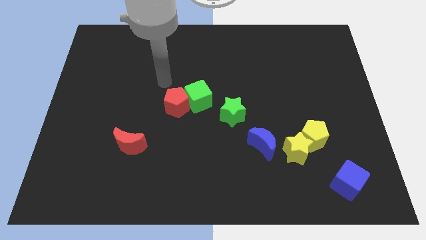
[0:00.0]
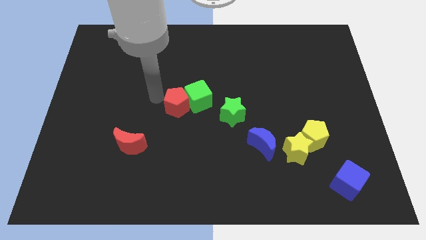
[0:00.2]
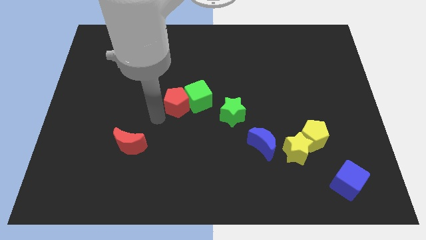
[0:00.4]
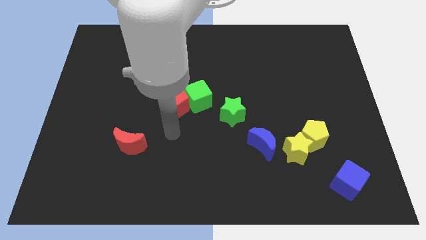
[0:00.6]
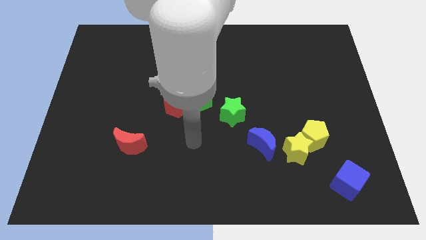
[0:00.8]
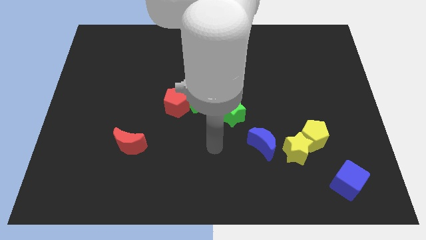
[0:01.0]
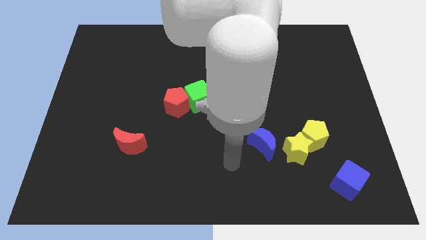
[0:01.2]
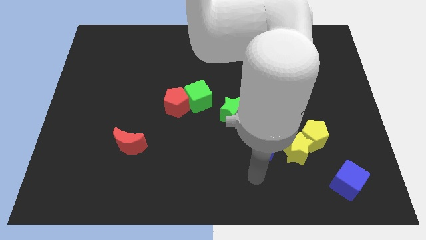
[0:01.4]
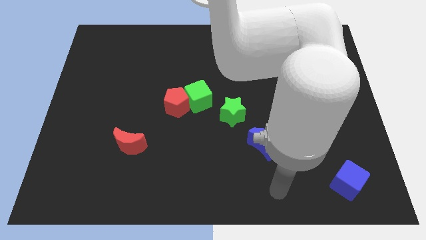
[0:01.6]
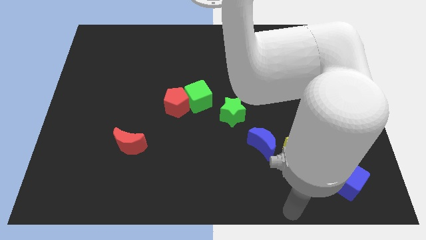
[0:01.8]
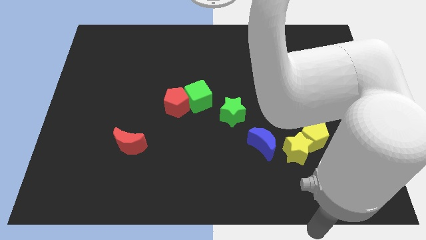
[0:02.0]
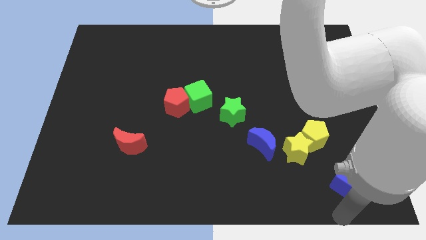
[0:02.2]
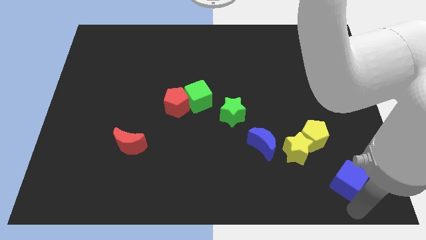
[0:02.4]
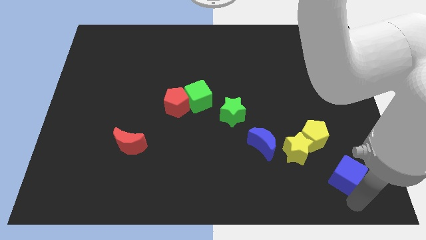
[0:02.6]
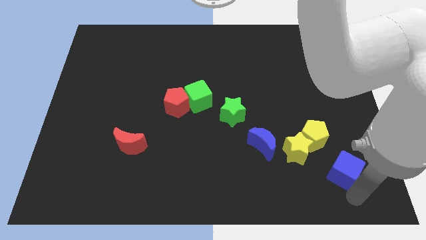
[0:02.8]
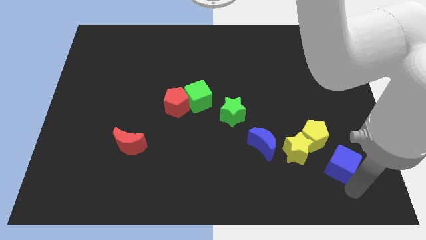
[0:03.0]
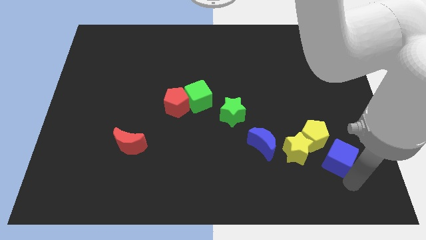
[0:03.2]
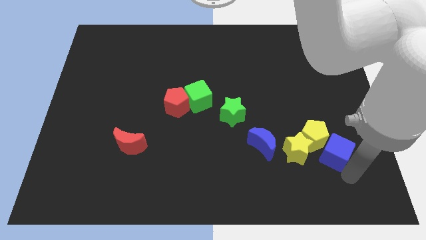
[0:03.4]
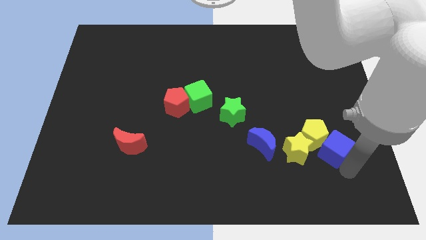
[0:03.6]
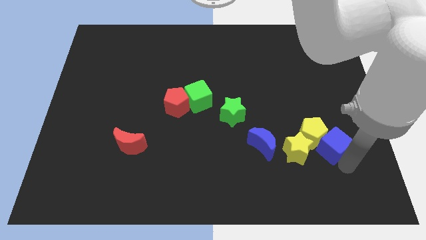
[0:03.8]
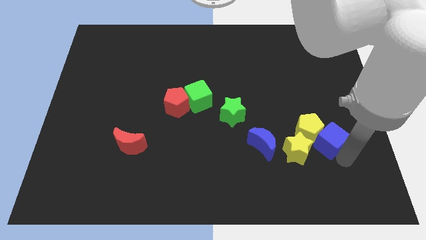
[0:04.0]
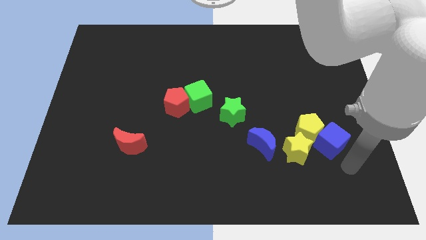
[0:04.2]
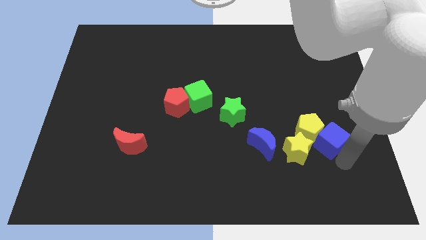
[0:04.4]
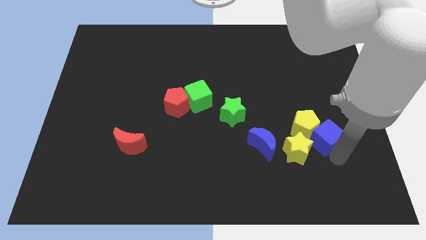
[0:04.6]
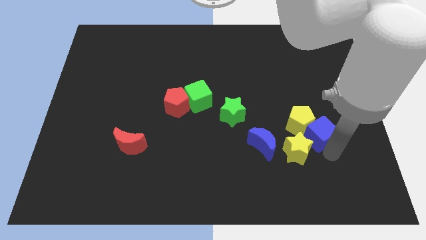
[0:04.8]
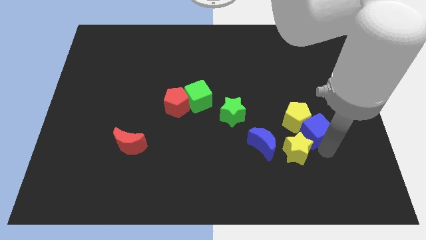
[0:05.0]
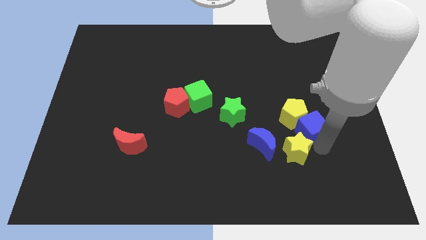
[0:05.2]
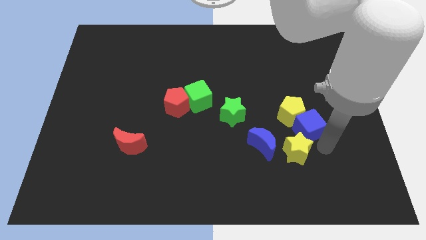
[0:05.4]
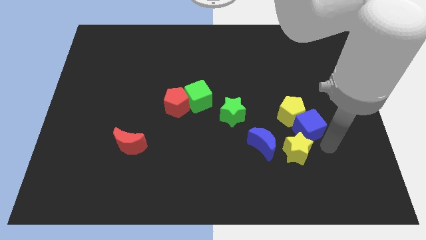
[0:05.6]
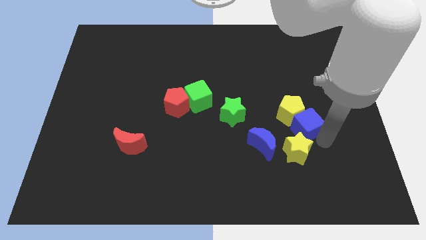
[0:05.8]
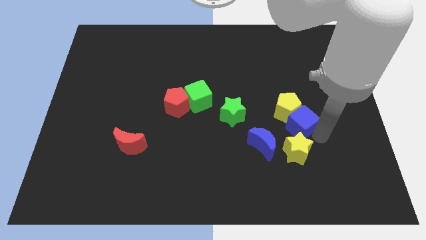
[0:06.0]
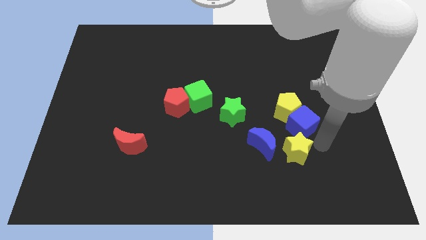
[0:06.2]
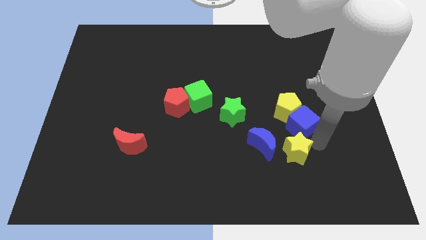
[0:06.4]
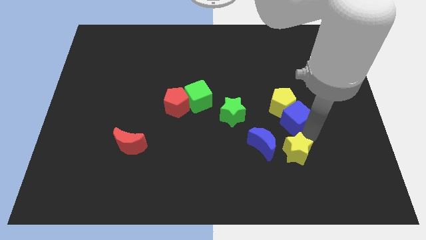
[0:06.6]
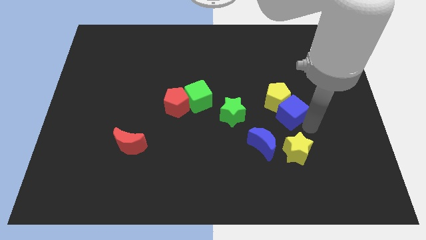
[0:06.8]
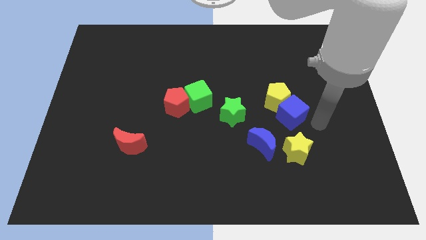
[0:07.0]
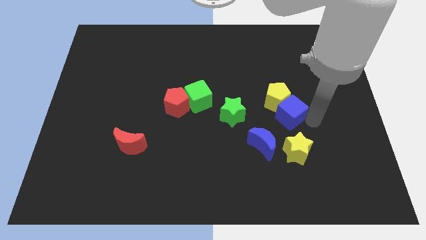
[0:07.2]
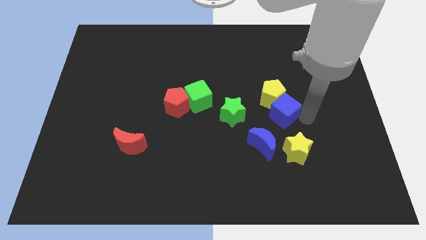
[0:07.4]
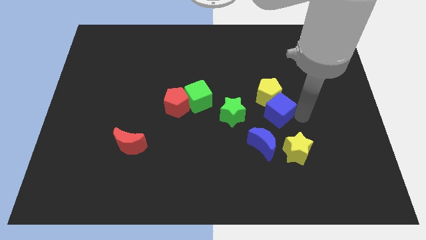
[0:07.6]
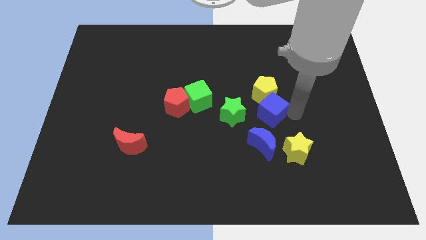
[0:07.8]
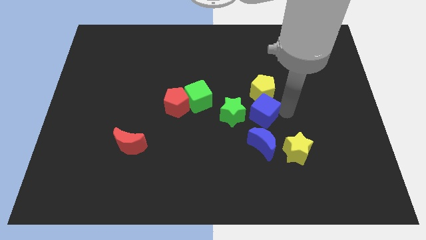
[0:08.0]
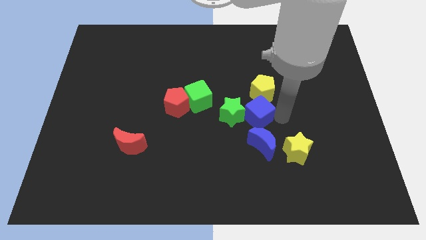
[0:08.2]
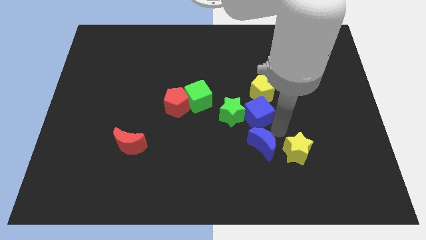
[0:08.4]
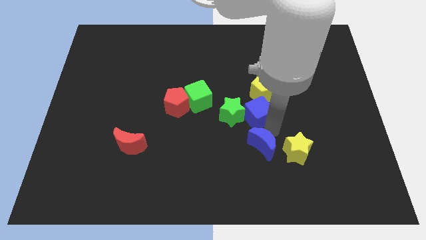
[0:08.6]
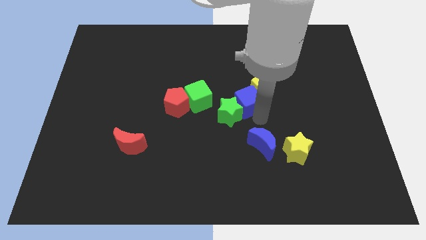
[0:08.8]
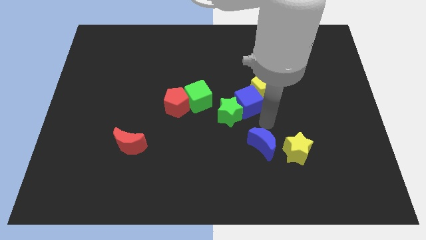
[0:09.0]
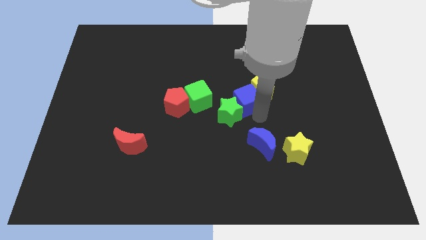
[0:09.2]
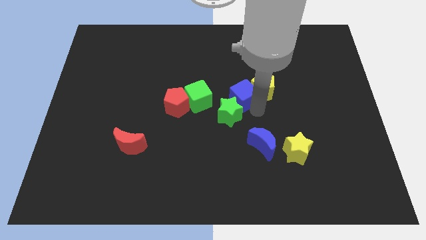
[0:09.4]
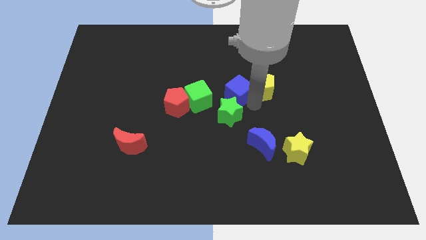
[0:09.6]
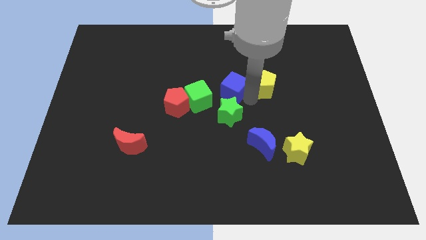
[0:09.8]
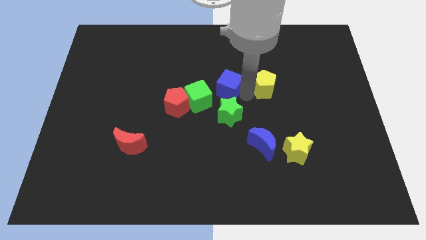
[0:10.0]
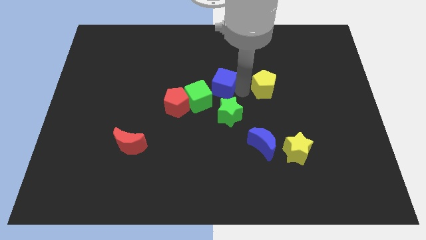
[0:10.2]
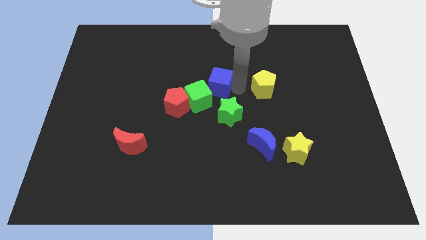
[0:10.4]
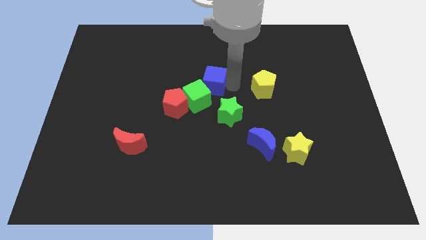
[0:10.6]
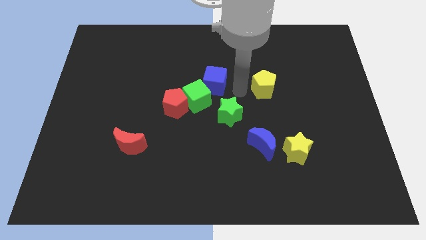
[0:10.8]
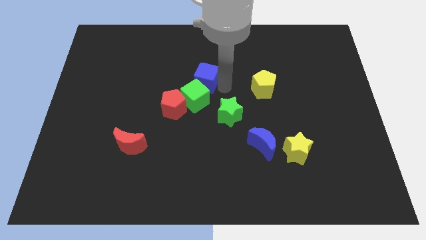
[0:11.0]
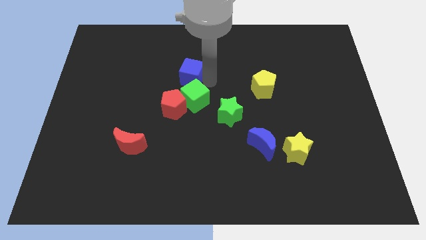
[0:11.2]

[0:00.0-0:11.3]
push the blue cube to the top side of the red pentagon

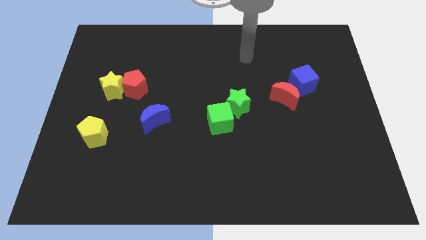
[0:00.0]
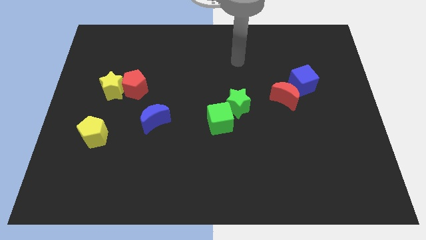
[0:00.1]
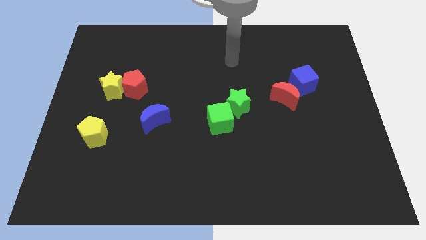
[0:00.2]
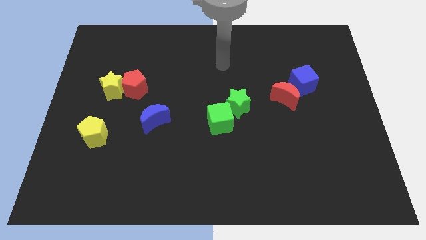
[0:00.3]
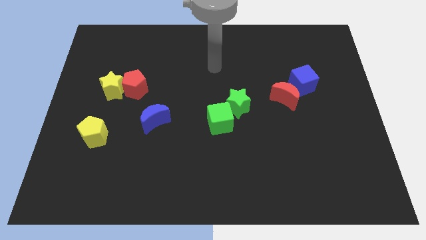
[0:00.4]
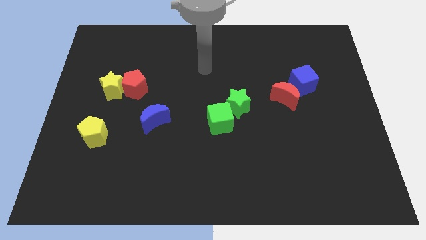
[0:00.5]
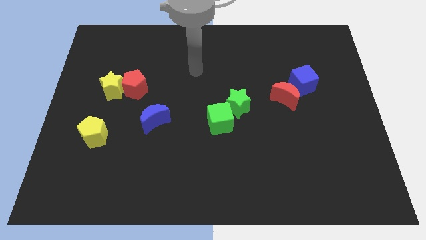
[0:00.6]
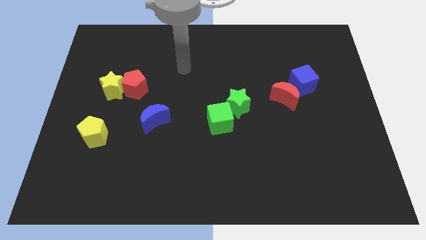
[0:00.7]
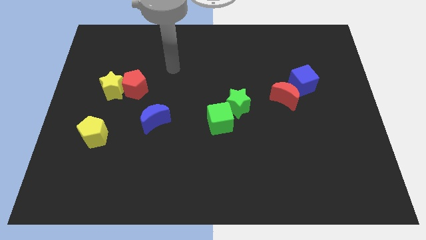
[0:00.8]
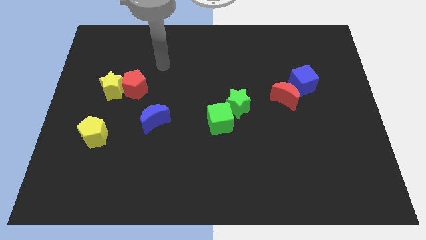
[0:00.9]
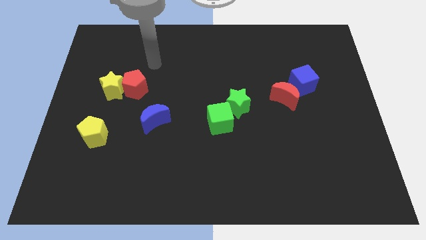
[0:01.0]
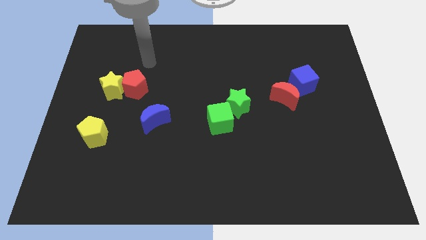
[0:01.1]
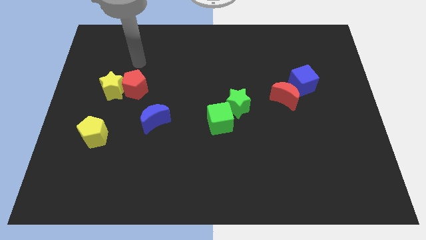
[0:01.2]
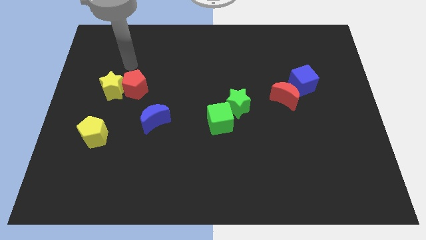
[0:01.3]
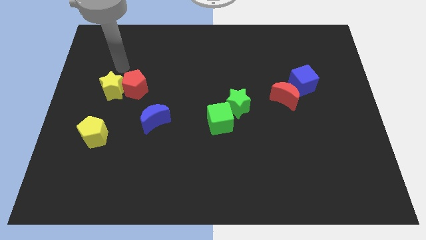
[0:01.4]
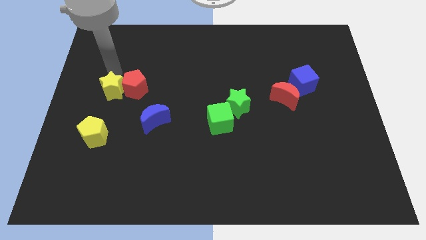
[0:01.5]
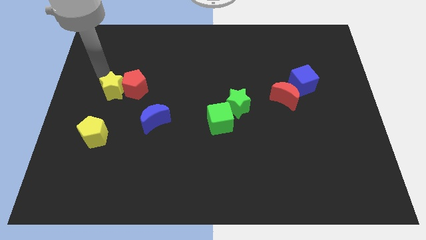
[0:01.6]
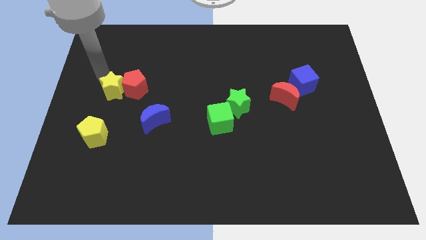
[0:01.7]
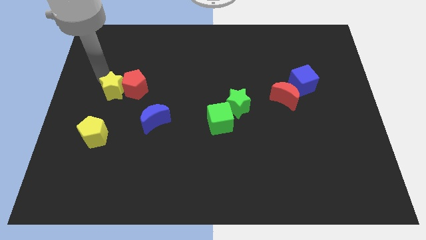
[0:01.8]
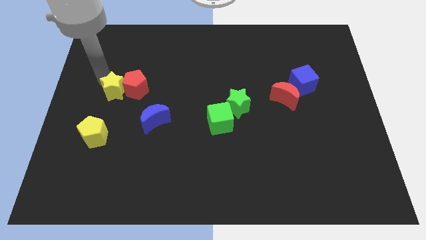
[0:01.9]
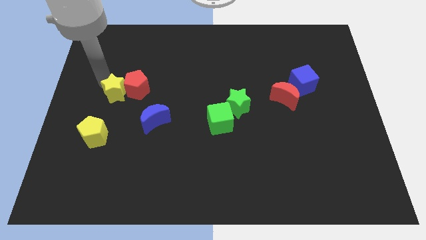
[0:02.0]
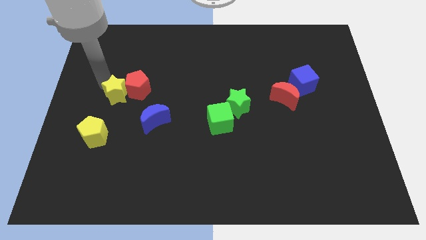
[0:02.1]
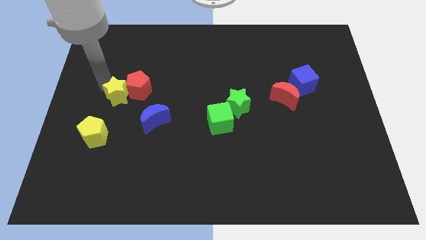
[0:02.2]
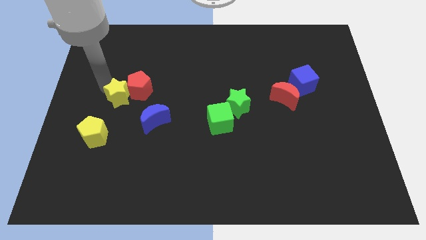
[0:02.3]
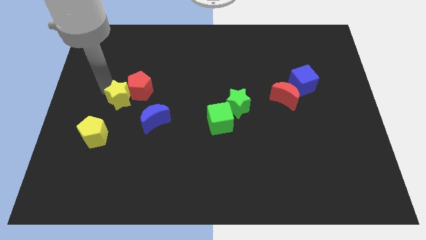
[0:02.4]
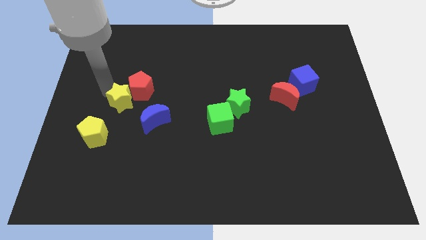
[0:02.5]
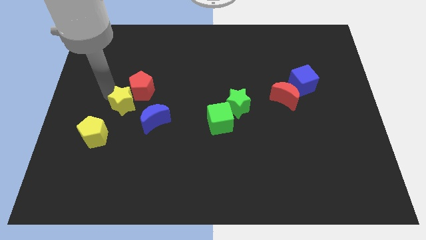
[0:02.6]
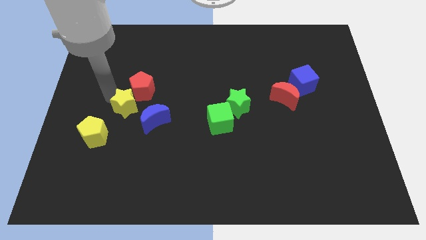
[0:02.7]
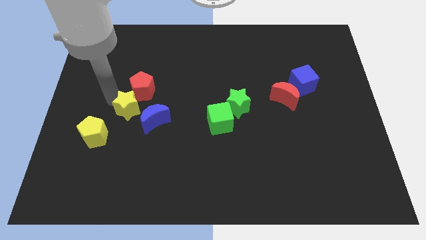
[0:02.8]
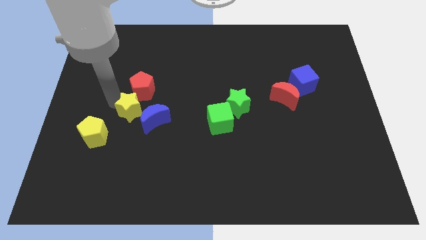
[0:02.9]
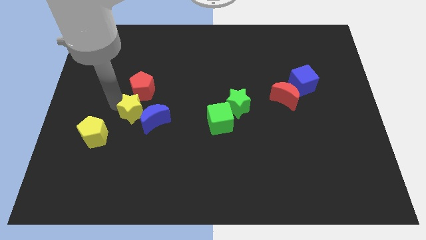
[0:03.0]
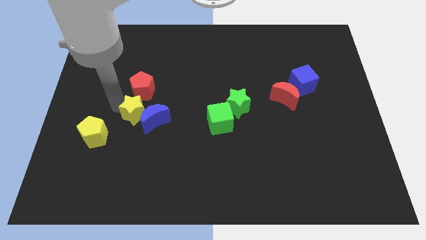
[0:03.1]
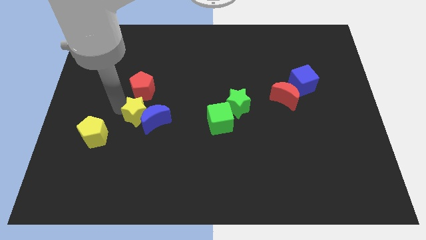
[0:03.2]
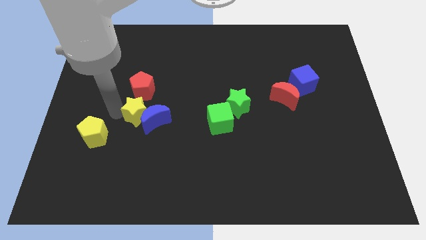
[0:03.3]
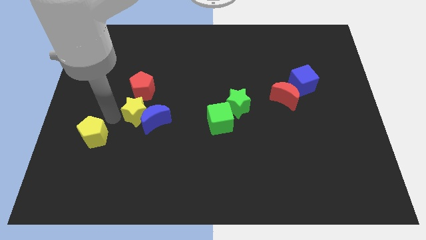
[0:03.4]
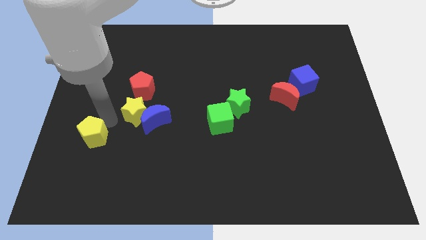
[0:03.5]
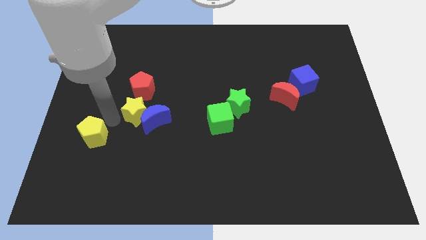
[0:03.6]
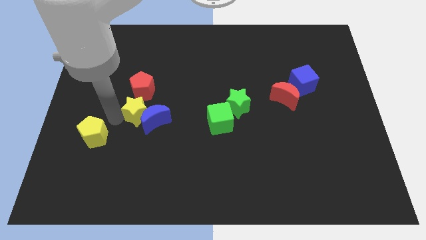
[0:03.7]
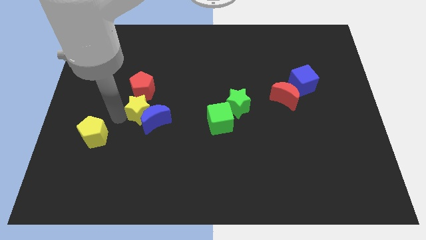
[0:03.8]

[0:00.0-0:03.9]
slide the yellow star to the bottom right side of the red pentagon
